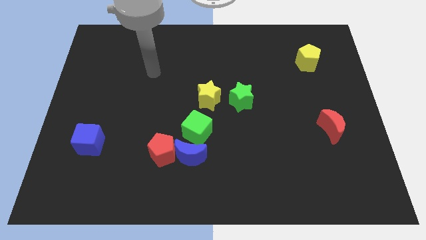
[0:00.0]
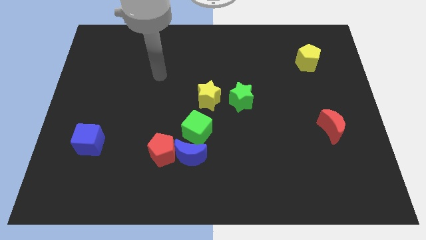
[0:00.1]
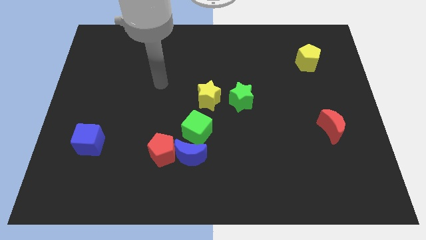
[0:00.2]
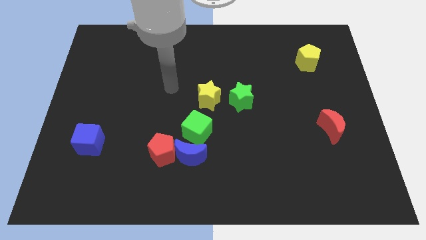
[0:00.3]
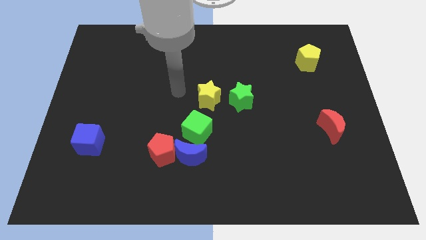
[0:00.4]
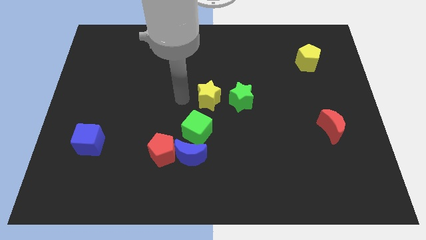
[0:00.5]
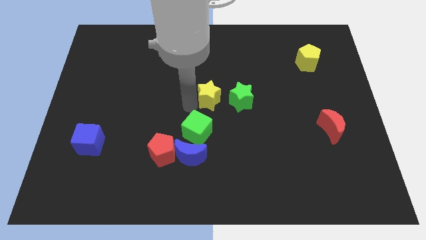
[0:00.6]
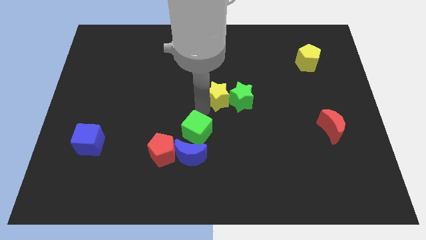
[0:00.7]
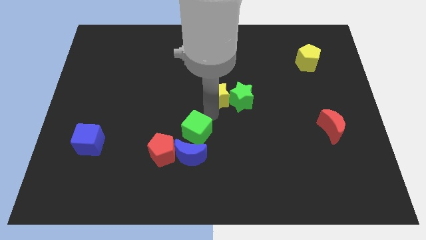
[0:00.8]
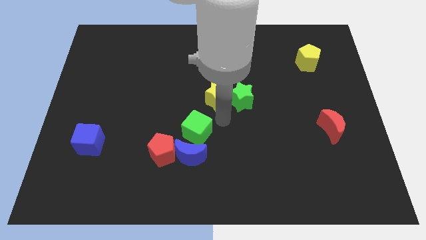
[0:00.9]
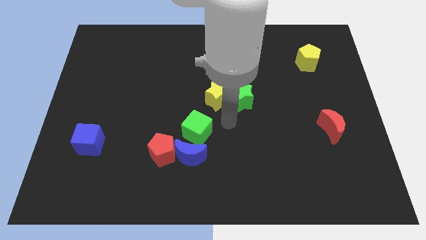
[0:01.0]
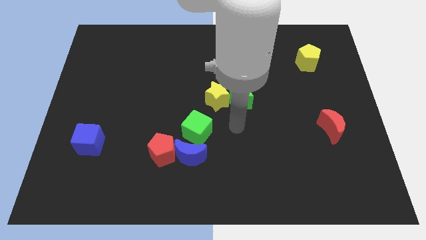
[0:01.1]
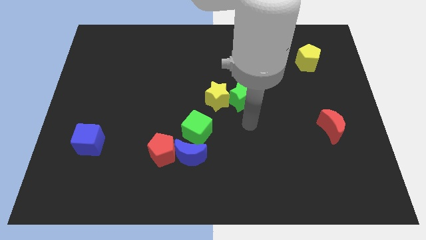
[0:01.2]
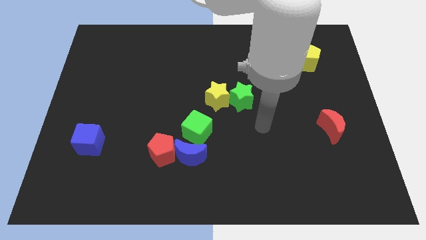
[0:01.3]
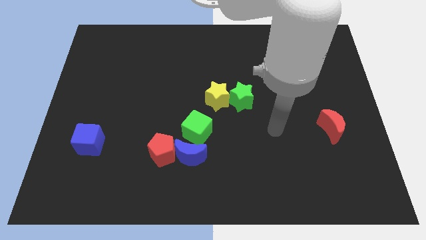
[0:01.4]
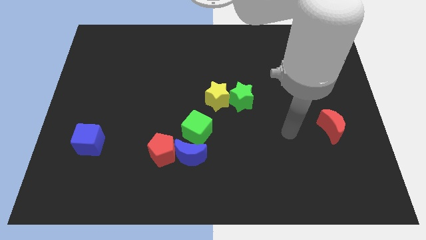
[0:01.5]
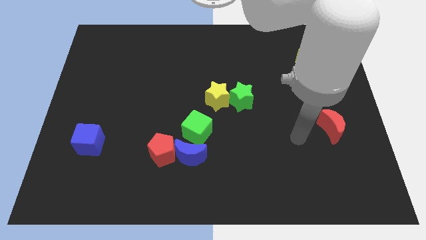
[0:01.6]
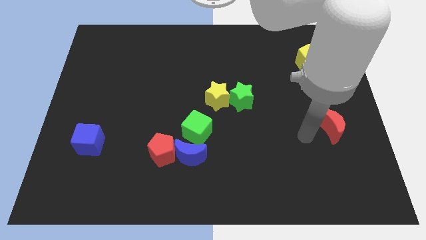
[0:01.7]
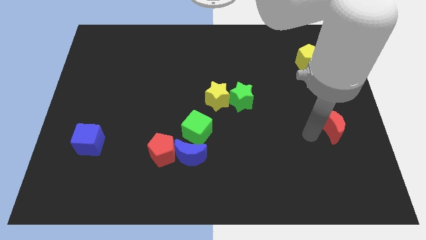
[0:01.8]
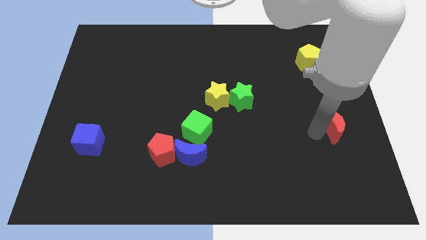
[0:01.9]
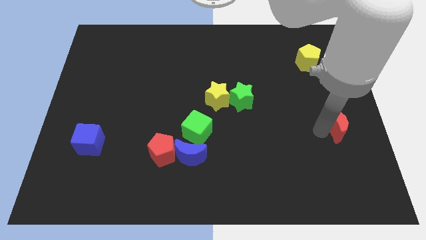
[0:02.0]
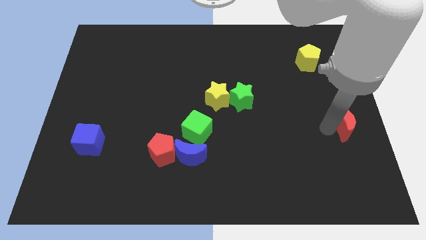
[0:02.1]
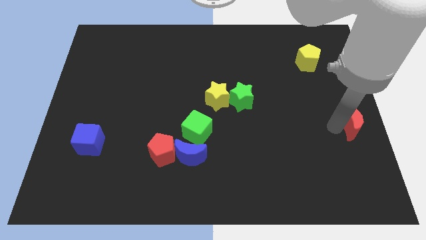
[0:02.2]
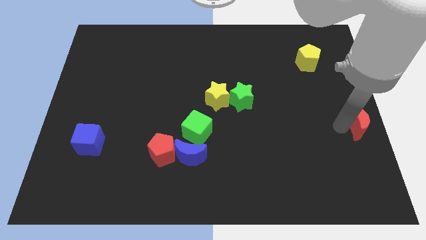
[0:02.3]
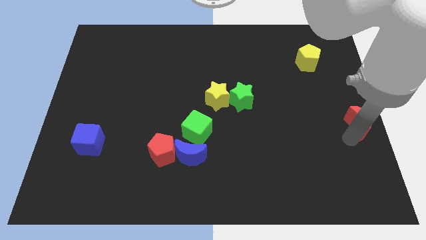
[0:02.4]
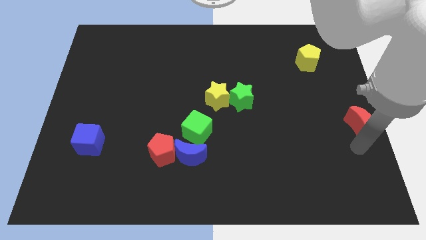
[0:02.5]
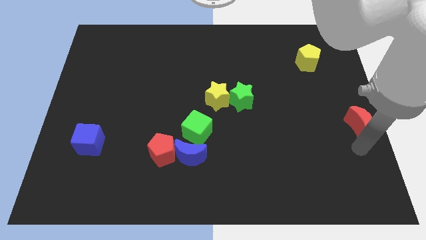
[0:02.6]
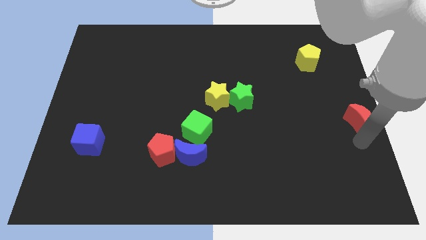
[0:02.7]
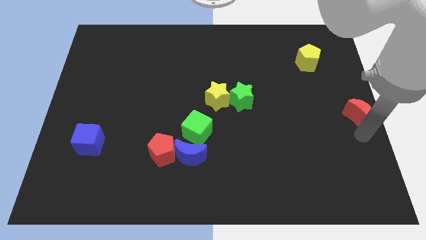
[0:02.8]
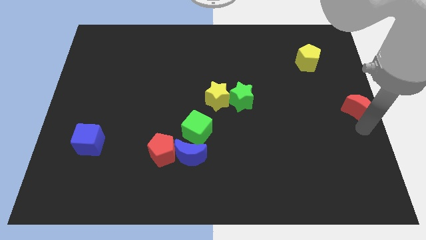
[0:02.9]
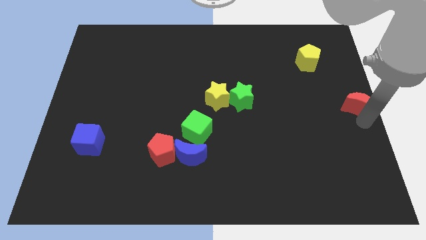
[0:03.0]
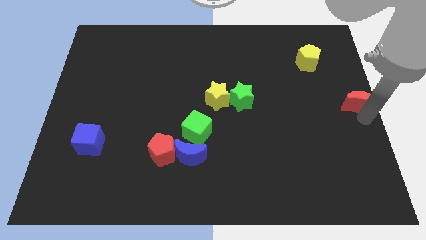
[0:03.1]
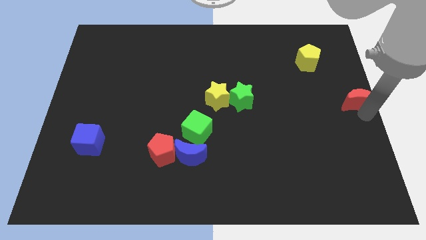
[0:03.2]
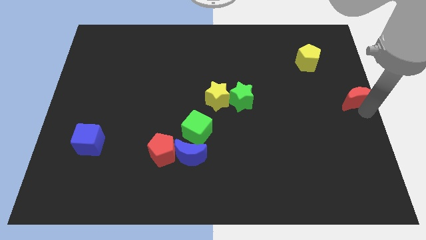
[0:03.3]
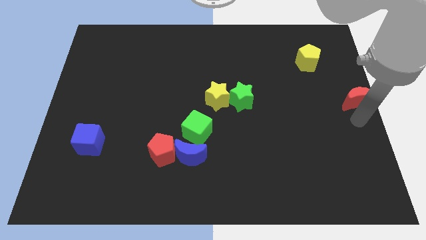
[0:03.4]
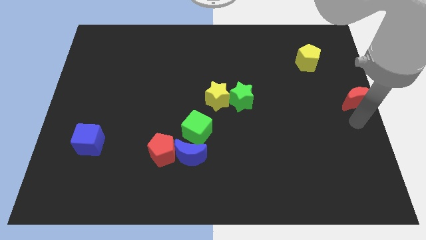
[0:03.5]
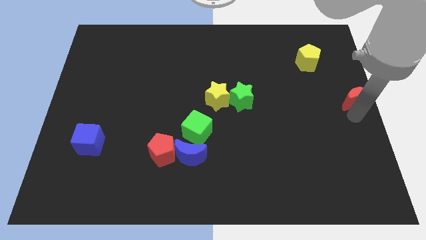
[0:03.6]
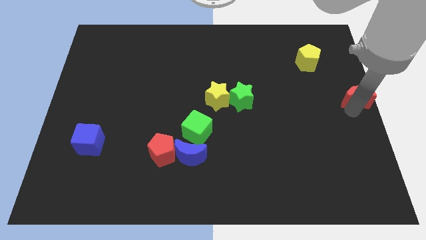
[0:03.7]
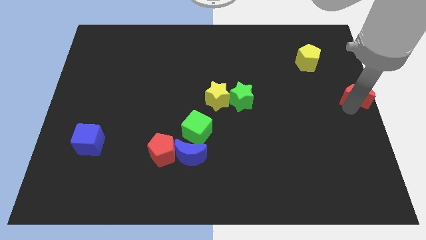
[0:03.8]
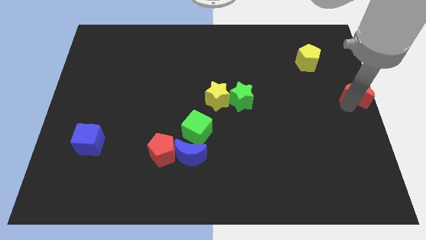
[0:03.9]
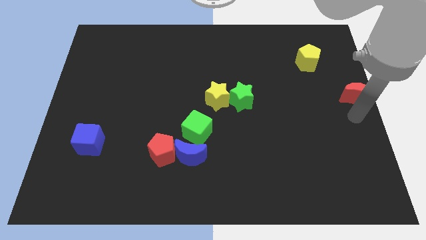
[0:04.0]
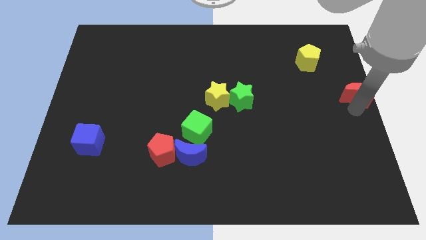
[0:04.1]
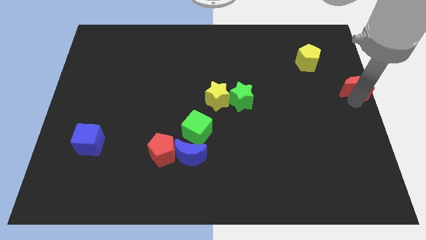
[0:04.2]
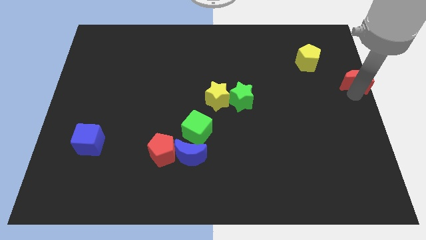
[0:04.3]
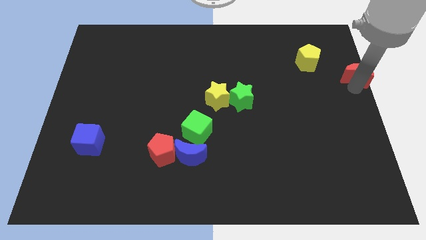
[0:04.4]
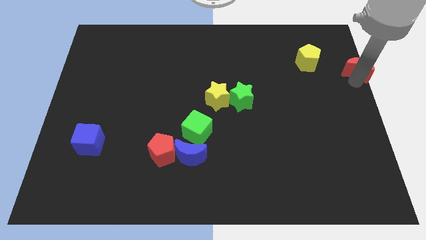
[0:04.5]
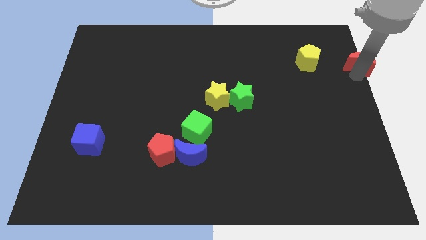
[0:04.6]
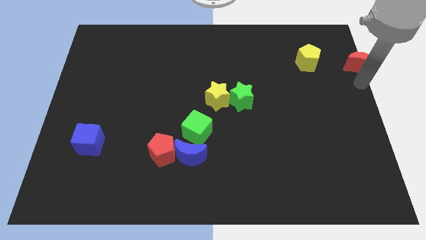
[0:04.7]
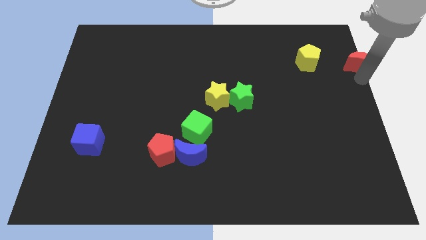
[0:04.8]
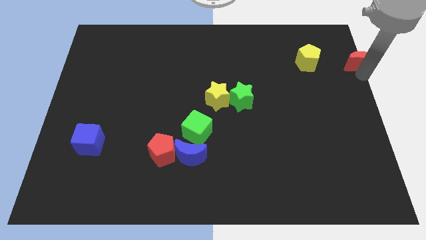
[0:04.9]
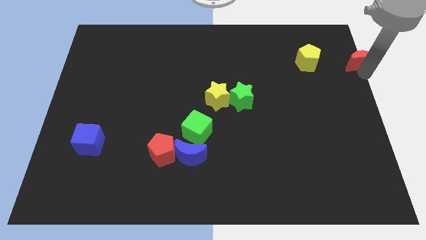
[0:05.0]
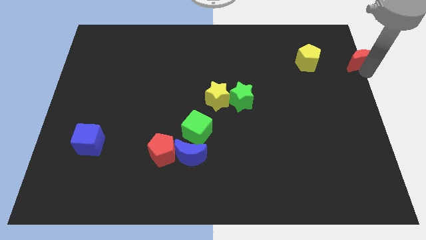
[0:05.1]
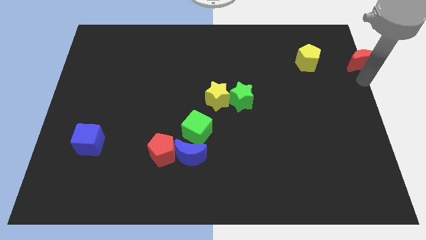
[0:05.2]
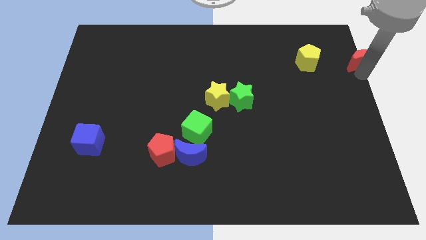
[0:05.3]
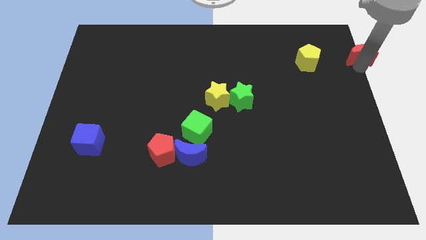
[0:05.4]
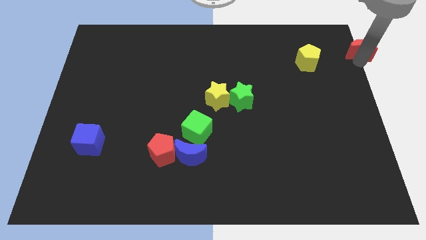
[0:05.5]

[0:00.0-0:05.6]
push the red moon to the top right of the board

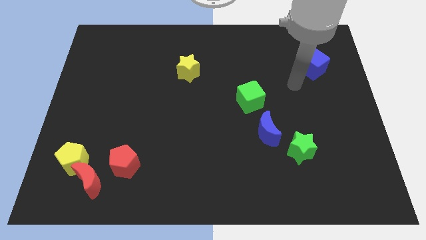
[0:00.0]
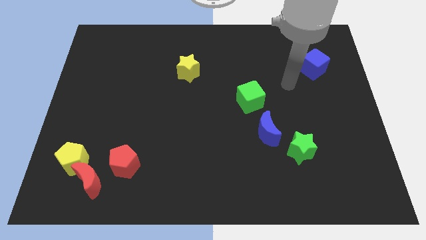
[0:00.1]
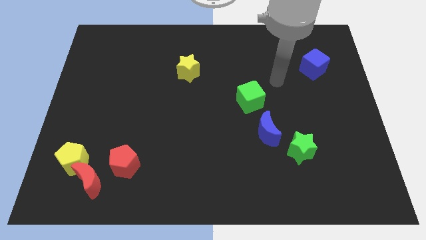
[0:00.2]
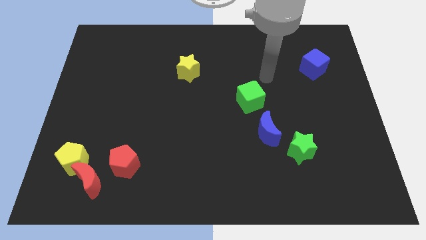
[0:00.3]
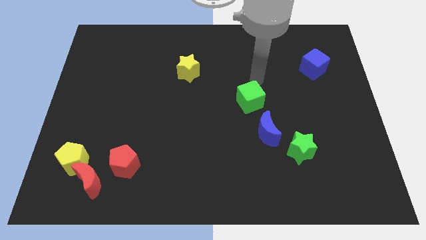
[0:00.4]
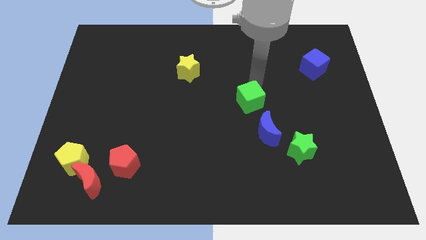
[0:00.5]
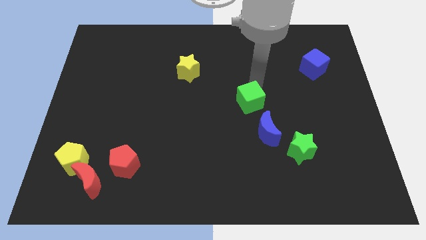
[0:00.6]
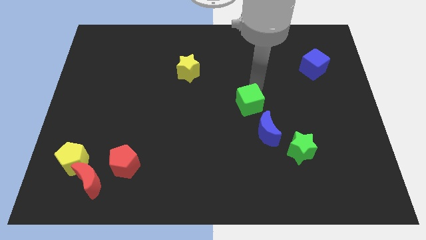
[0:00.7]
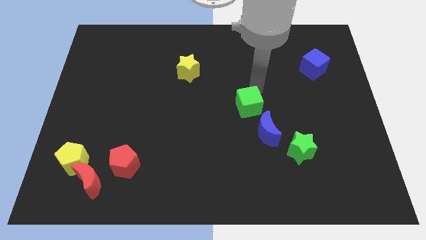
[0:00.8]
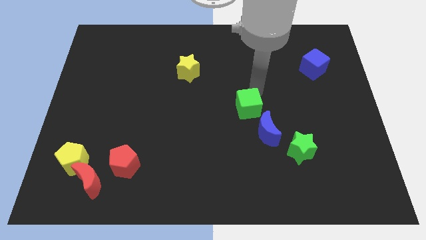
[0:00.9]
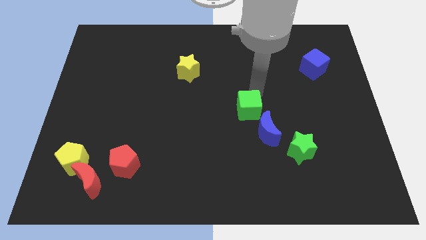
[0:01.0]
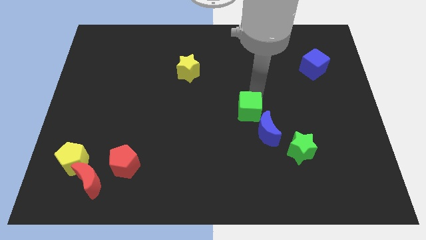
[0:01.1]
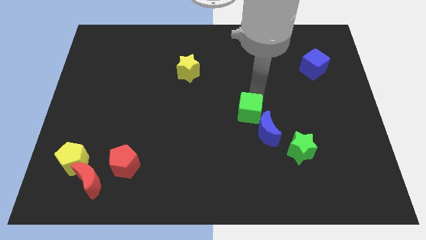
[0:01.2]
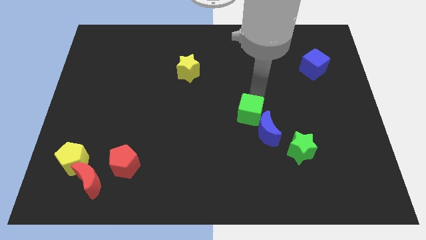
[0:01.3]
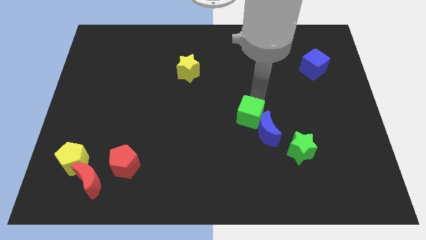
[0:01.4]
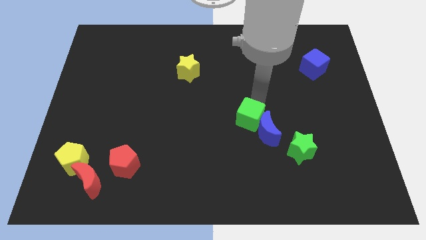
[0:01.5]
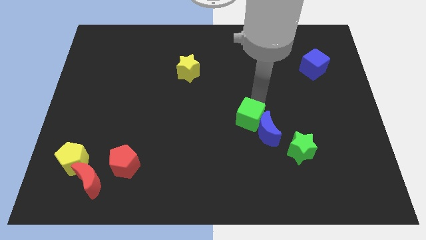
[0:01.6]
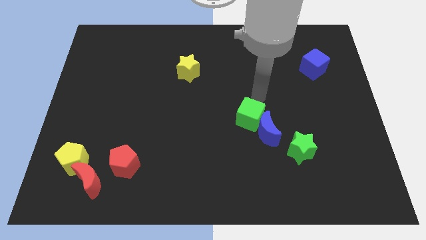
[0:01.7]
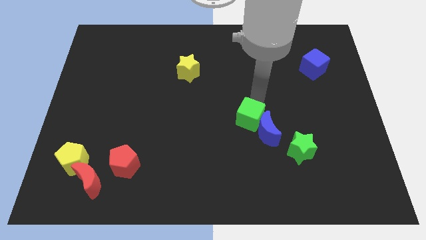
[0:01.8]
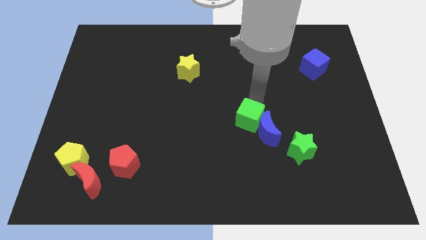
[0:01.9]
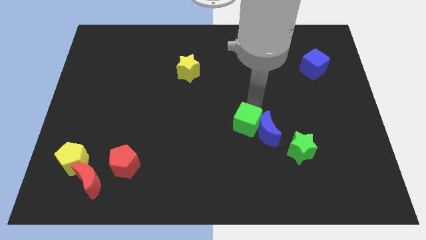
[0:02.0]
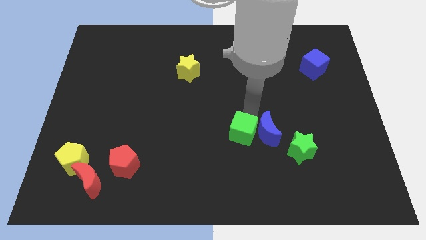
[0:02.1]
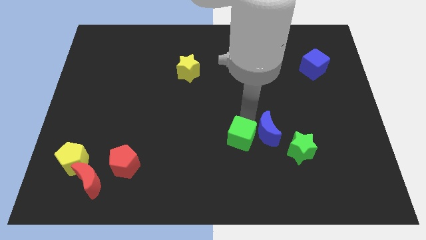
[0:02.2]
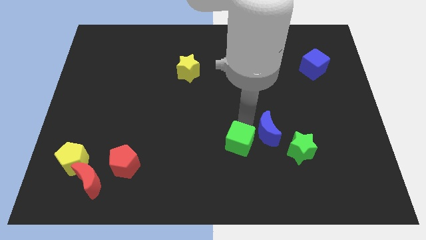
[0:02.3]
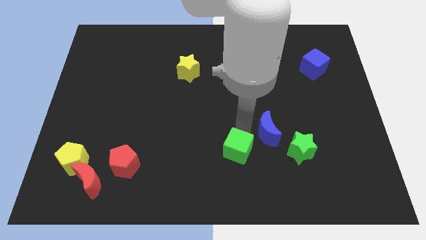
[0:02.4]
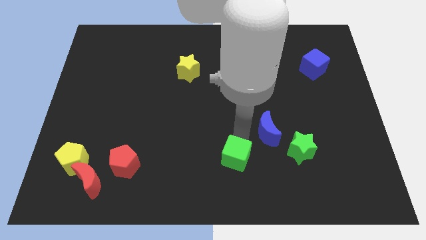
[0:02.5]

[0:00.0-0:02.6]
put the green cube to the bottom side
